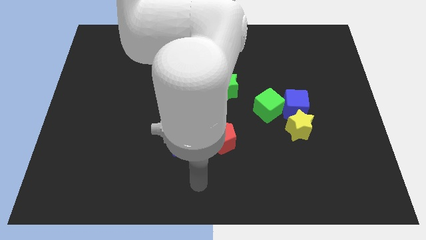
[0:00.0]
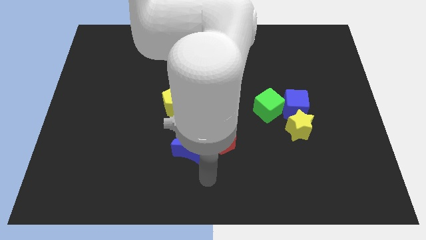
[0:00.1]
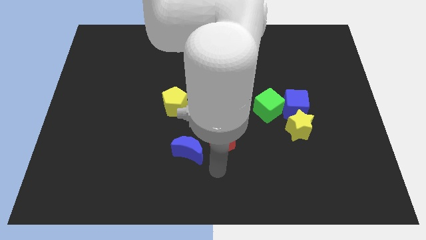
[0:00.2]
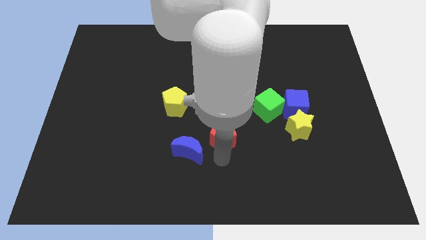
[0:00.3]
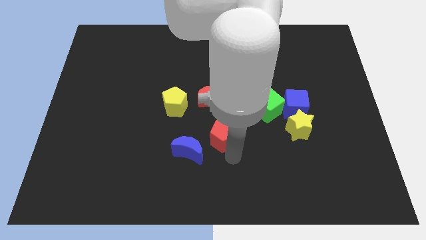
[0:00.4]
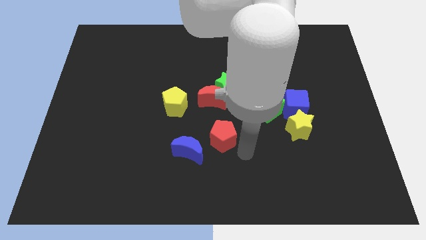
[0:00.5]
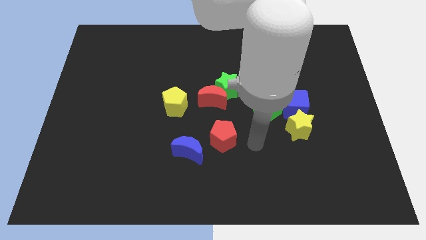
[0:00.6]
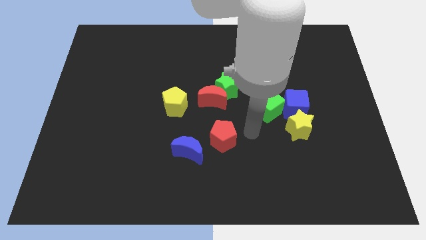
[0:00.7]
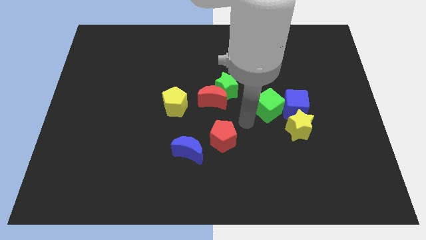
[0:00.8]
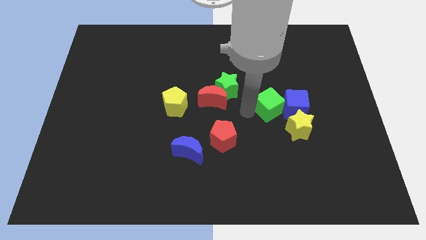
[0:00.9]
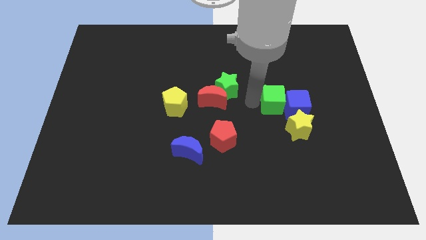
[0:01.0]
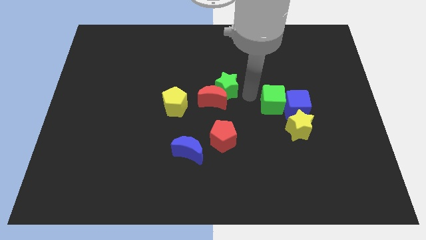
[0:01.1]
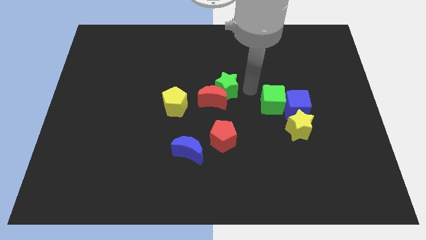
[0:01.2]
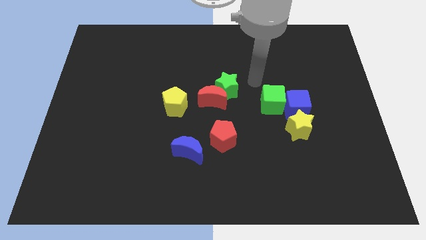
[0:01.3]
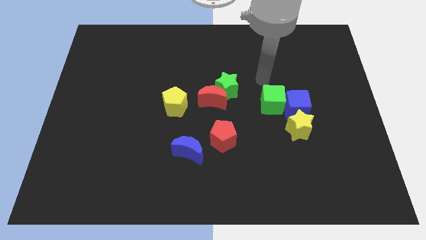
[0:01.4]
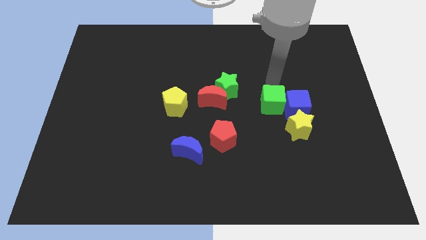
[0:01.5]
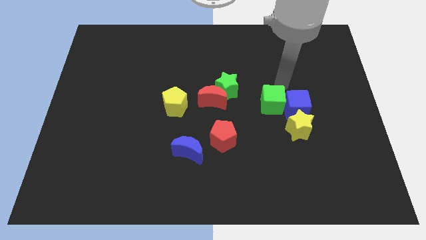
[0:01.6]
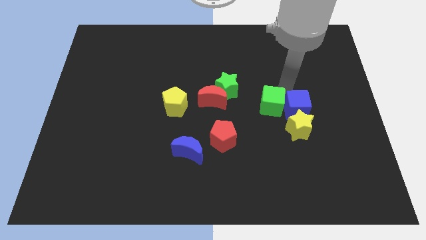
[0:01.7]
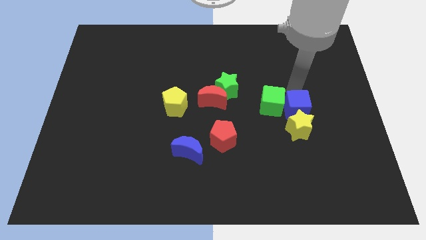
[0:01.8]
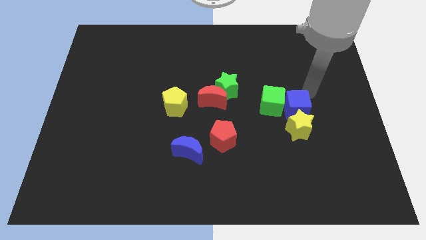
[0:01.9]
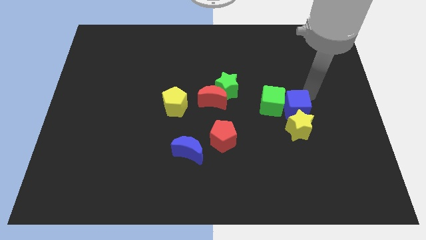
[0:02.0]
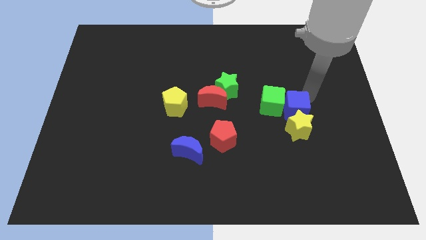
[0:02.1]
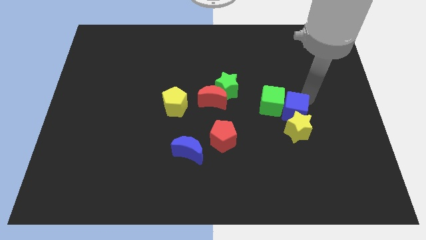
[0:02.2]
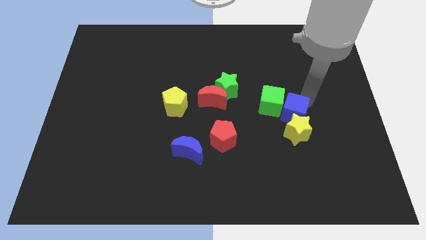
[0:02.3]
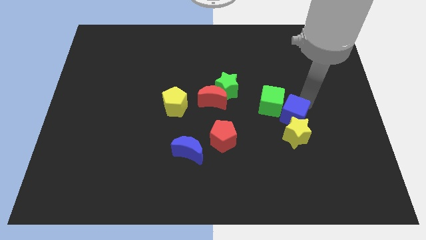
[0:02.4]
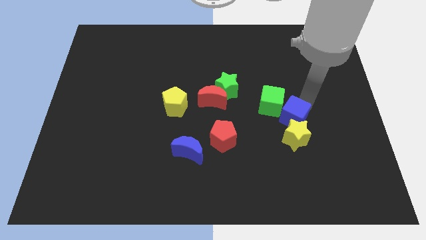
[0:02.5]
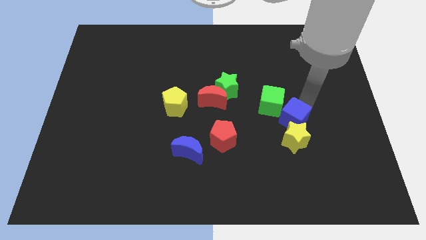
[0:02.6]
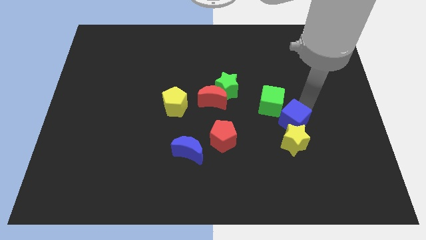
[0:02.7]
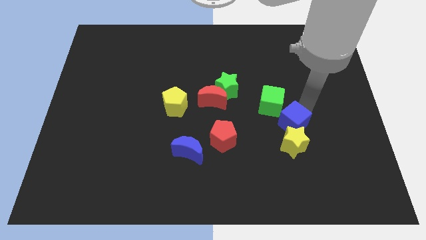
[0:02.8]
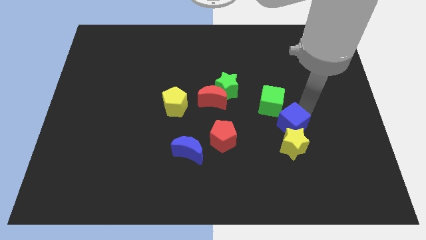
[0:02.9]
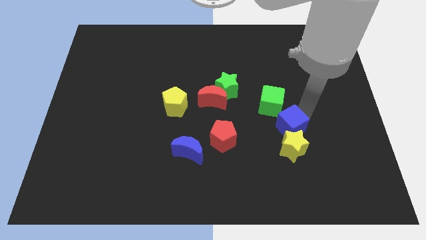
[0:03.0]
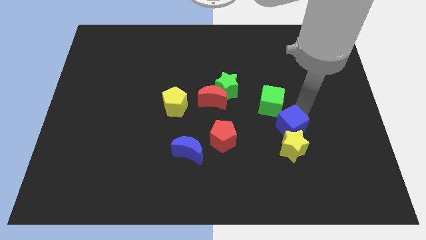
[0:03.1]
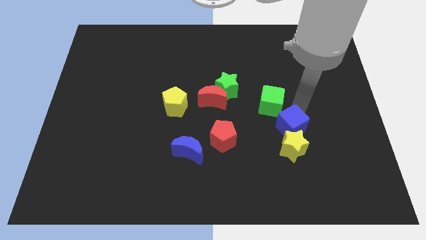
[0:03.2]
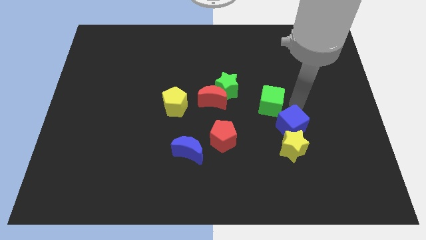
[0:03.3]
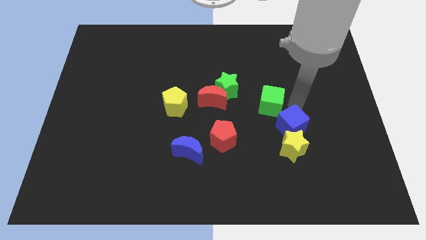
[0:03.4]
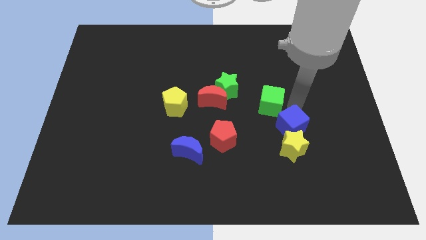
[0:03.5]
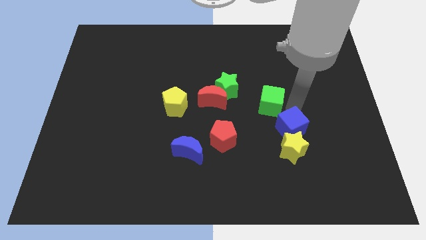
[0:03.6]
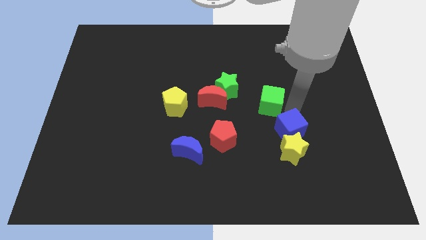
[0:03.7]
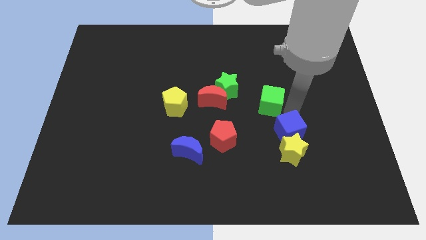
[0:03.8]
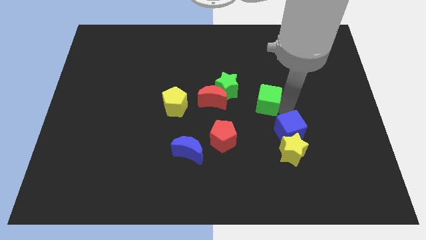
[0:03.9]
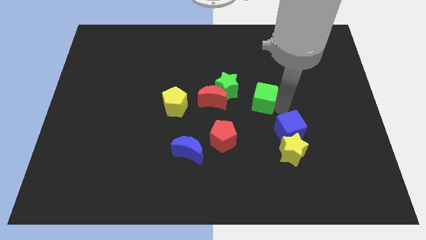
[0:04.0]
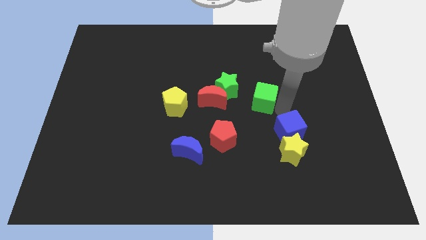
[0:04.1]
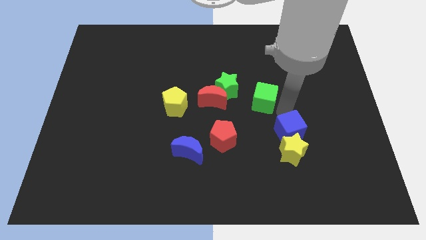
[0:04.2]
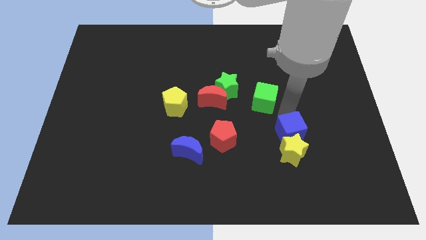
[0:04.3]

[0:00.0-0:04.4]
push the blue cube a bit downwards

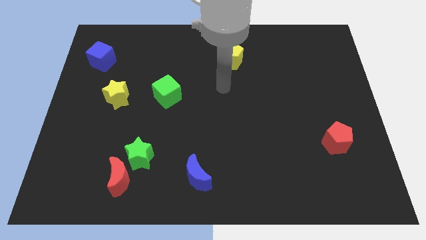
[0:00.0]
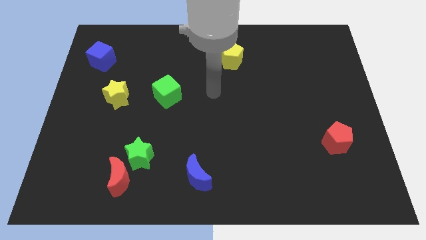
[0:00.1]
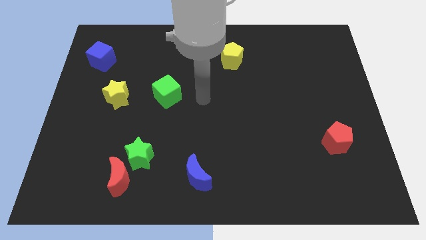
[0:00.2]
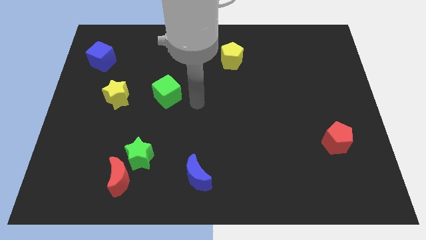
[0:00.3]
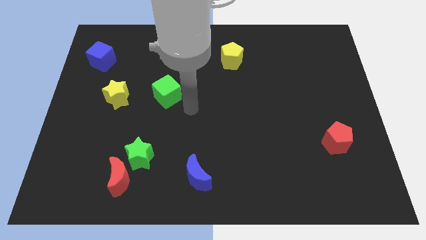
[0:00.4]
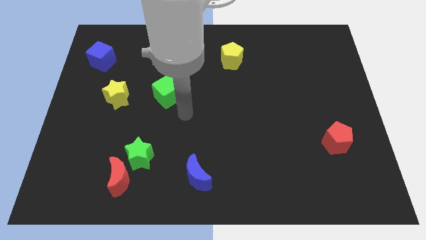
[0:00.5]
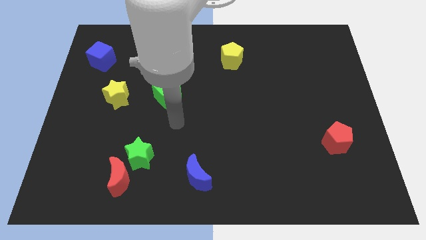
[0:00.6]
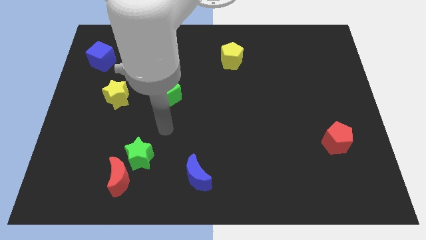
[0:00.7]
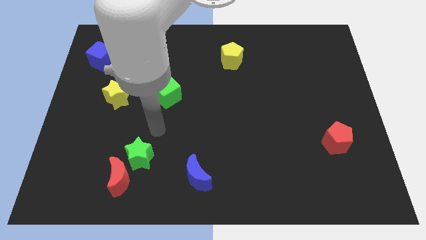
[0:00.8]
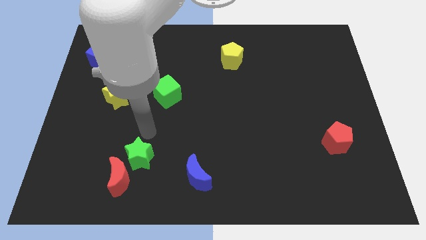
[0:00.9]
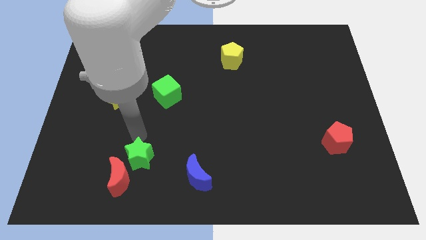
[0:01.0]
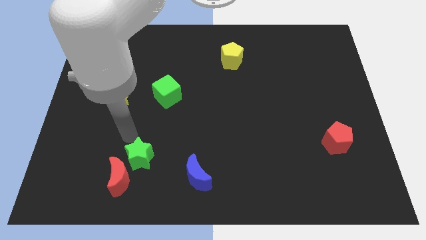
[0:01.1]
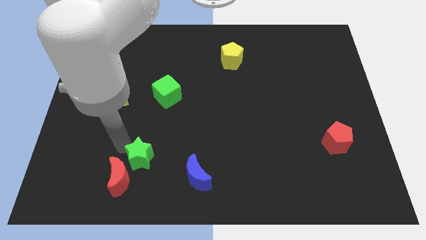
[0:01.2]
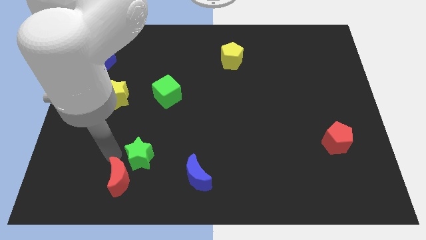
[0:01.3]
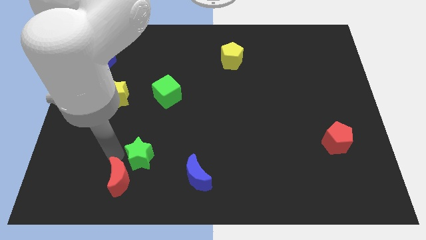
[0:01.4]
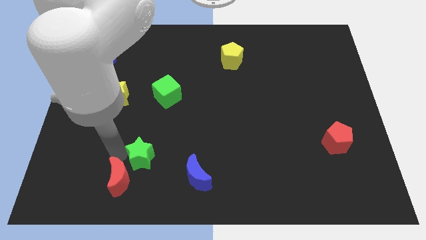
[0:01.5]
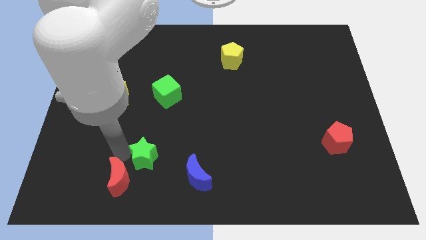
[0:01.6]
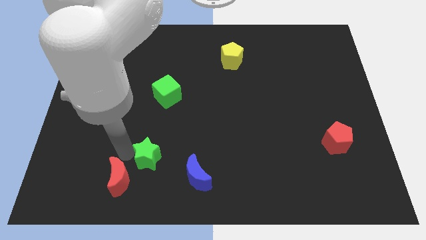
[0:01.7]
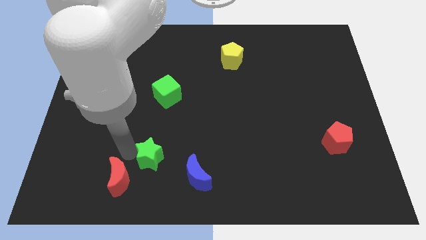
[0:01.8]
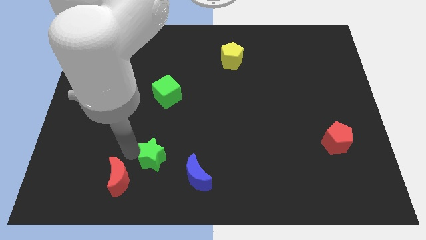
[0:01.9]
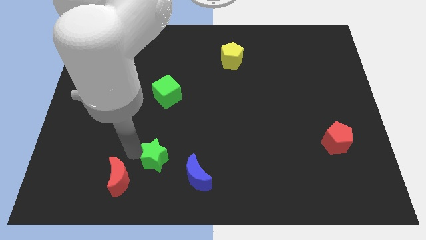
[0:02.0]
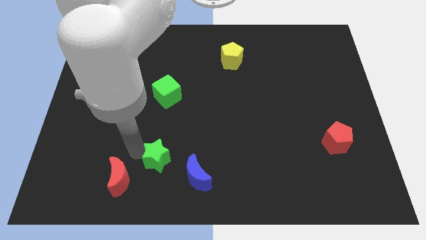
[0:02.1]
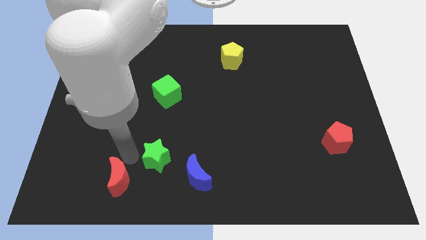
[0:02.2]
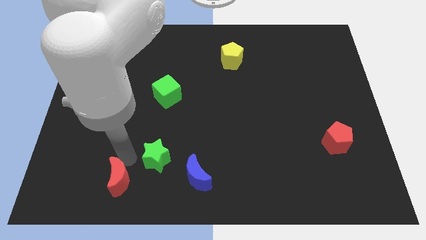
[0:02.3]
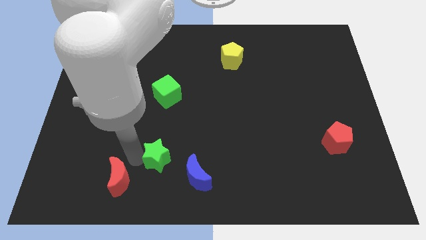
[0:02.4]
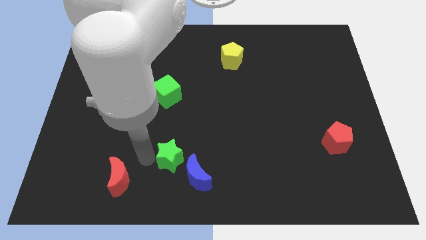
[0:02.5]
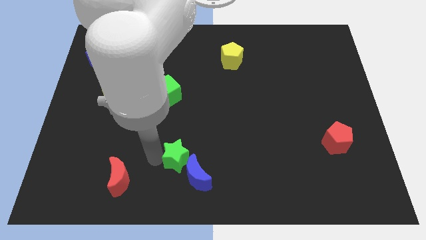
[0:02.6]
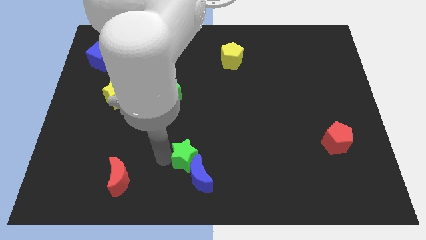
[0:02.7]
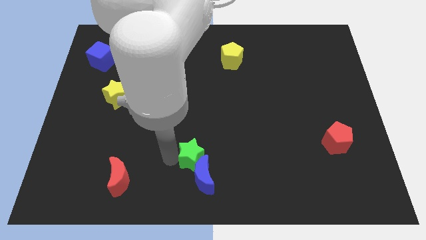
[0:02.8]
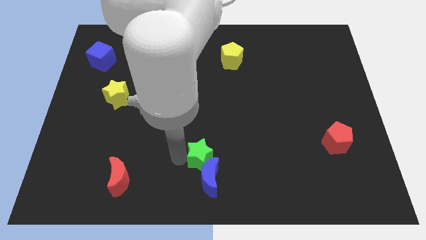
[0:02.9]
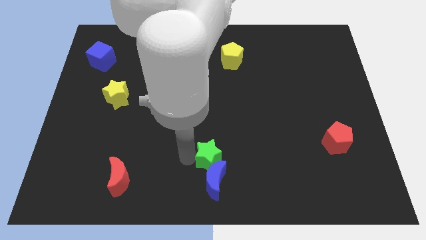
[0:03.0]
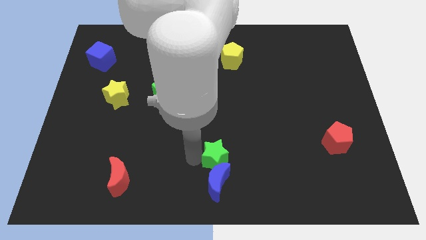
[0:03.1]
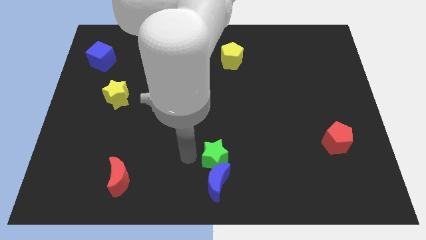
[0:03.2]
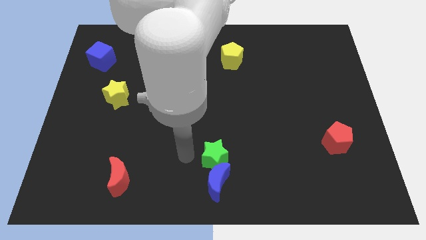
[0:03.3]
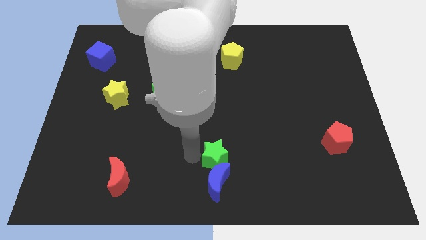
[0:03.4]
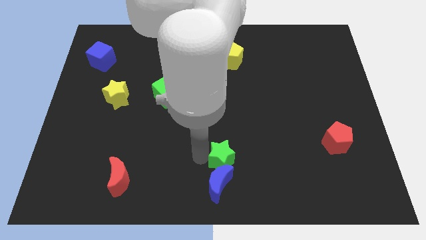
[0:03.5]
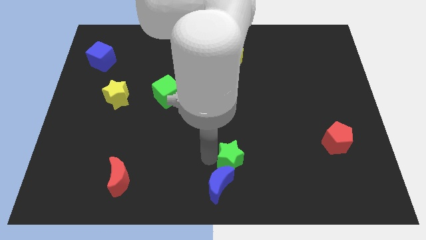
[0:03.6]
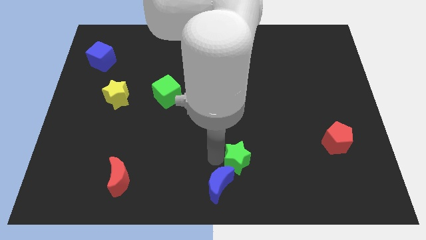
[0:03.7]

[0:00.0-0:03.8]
slide the green star right
